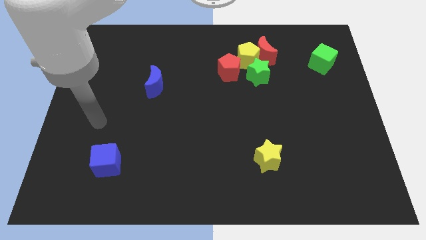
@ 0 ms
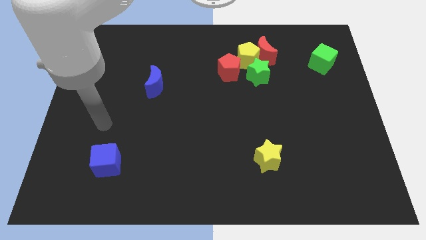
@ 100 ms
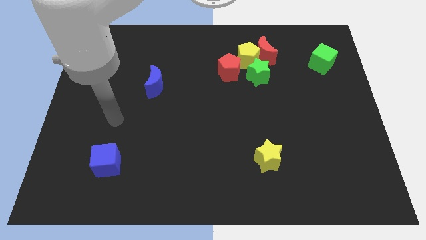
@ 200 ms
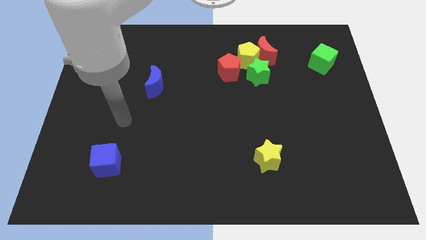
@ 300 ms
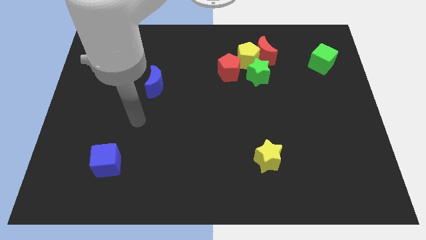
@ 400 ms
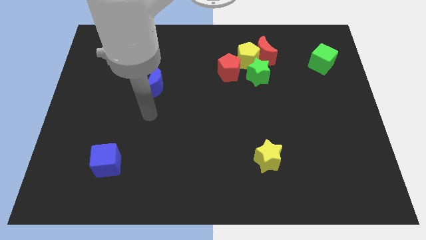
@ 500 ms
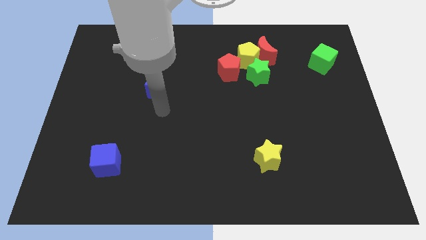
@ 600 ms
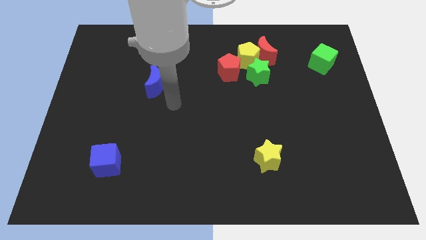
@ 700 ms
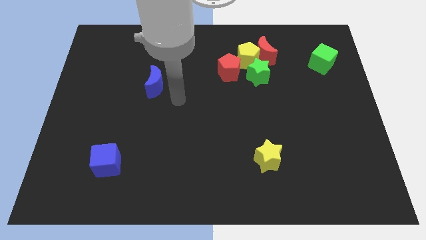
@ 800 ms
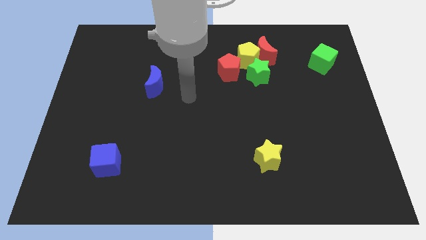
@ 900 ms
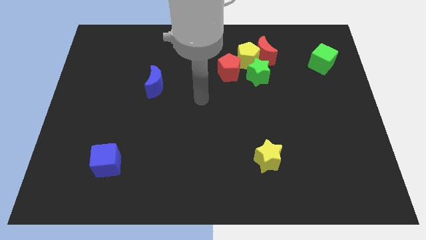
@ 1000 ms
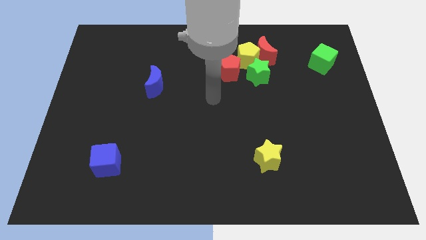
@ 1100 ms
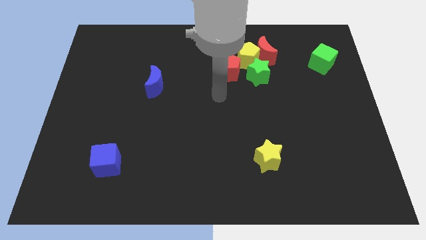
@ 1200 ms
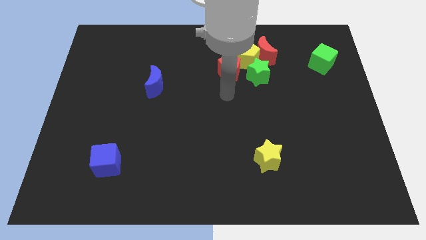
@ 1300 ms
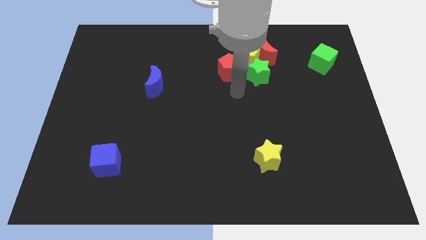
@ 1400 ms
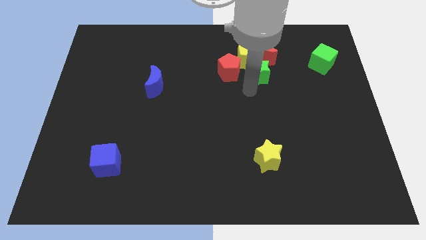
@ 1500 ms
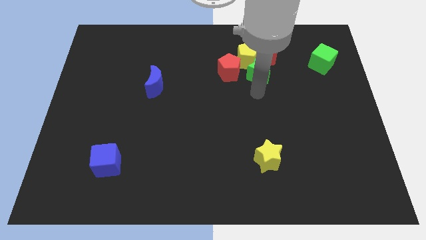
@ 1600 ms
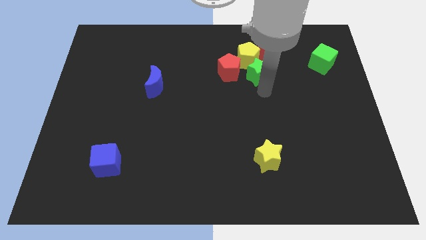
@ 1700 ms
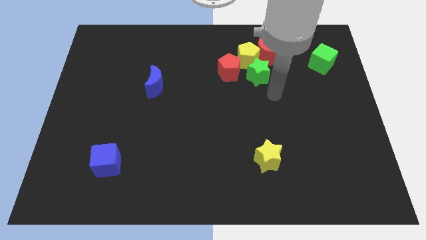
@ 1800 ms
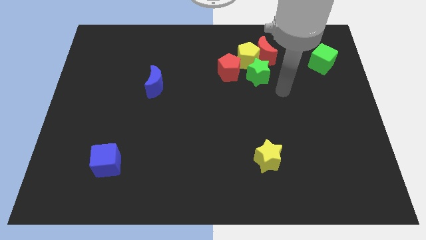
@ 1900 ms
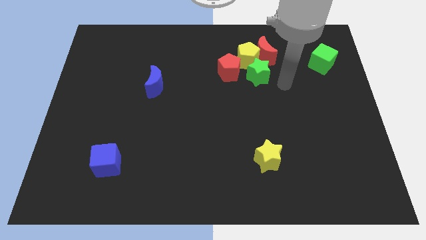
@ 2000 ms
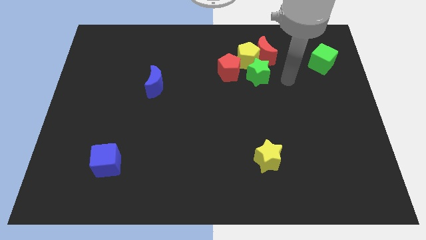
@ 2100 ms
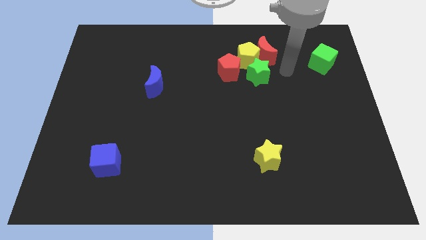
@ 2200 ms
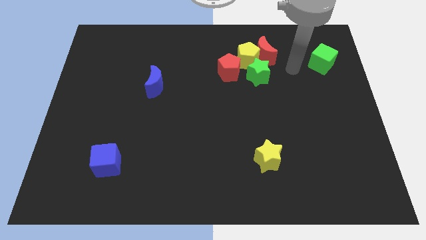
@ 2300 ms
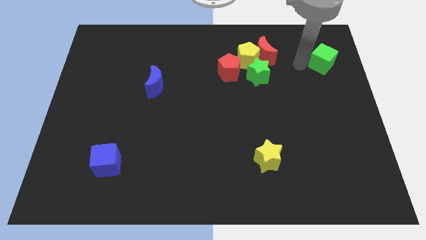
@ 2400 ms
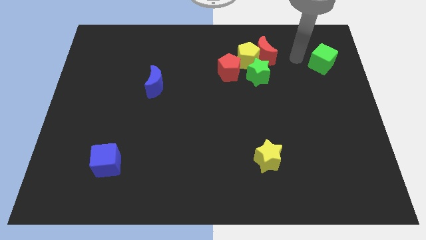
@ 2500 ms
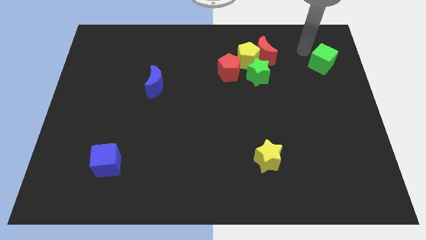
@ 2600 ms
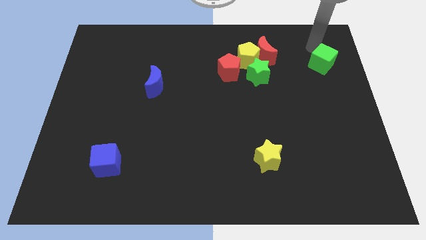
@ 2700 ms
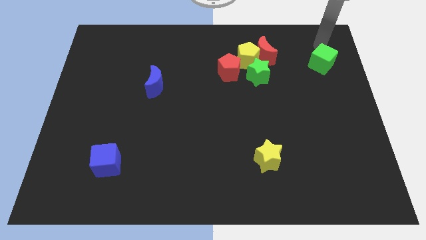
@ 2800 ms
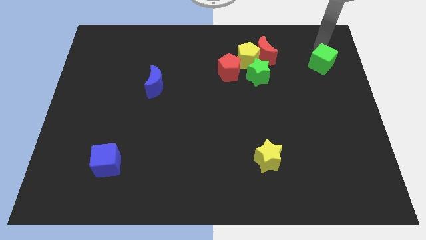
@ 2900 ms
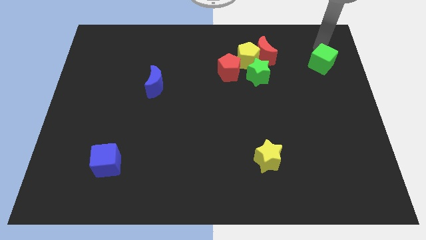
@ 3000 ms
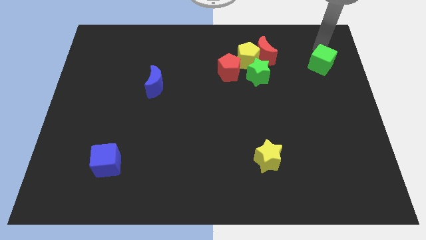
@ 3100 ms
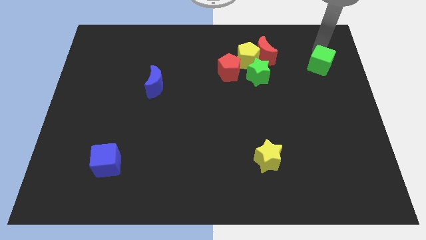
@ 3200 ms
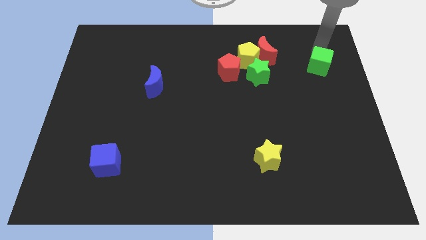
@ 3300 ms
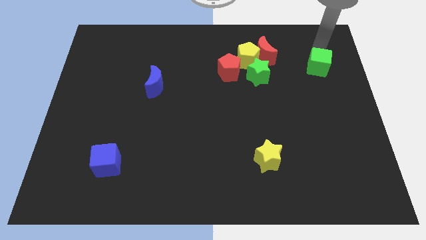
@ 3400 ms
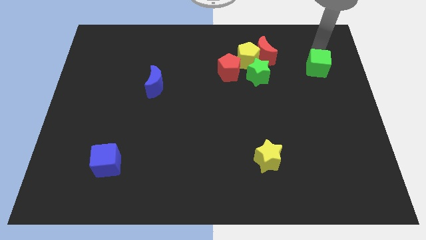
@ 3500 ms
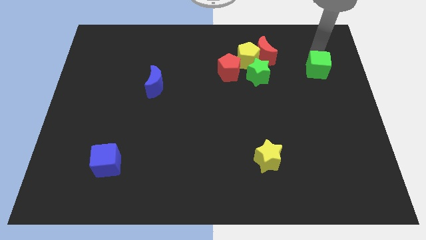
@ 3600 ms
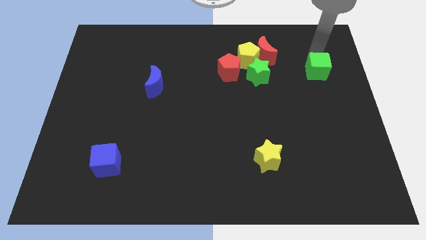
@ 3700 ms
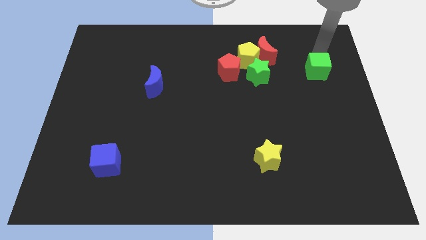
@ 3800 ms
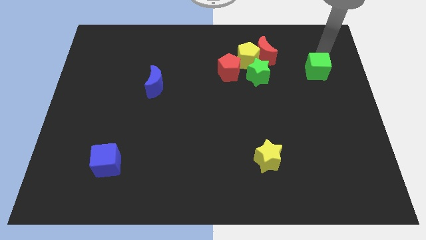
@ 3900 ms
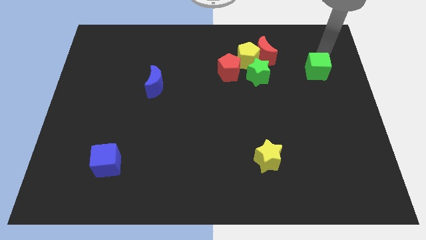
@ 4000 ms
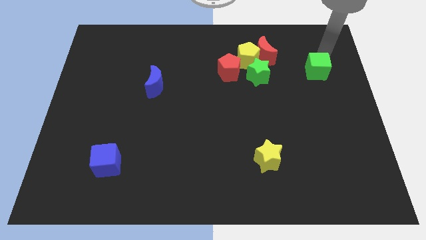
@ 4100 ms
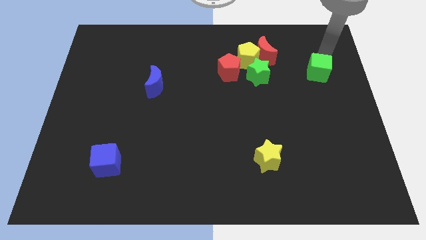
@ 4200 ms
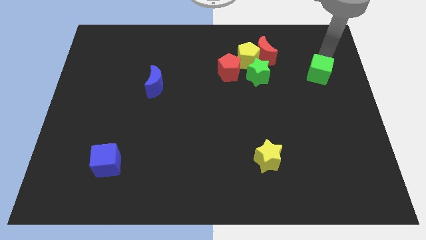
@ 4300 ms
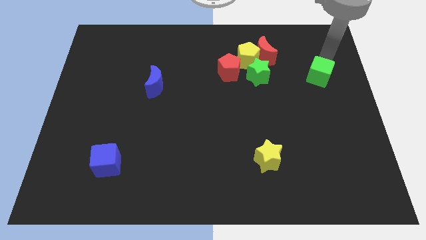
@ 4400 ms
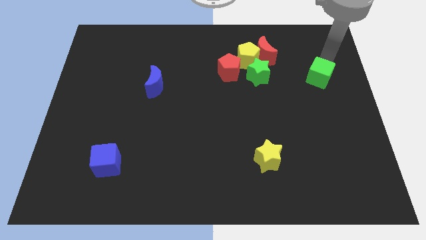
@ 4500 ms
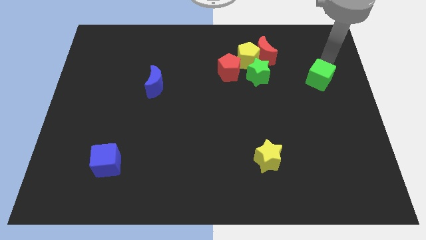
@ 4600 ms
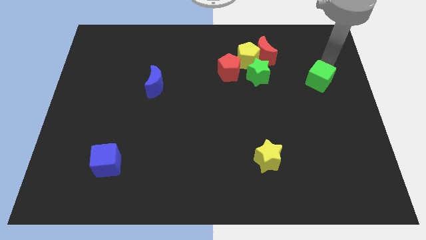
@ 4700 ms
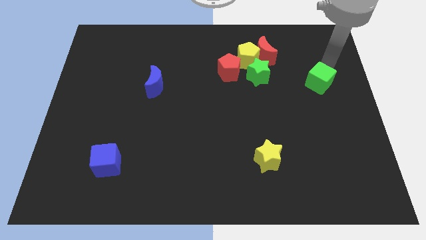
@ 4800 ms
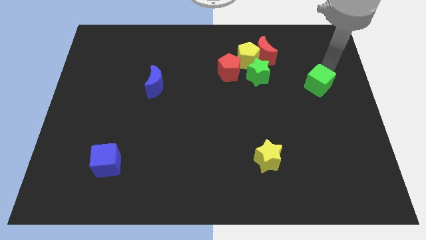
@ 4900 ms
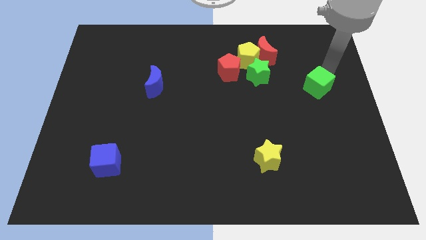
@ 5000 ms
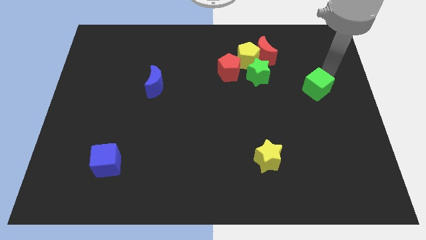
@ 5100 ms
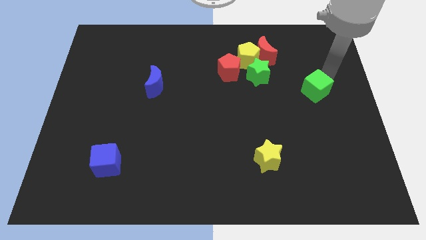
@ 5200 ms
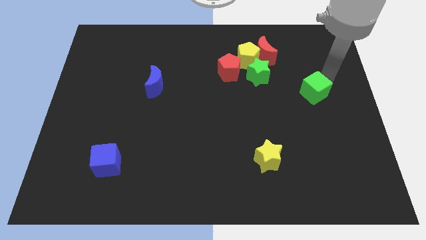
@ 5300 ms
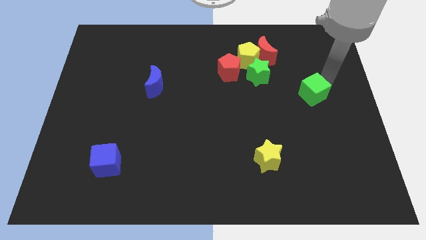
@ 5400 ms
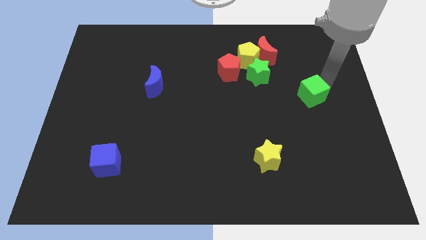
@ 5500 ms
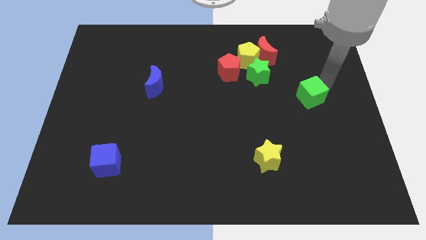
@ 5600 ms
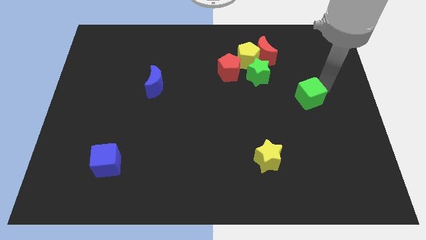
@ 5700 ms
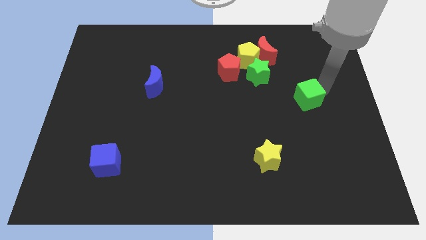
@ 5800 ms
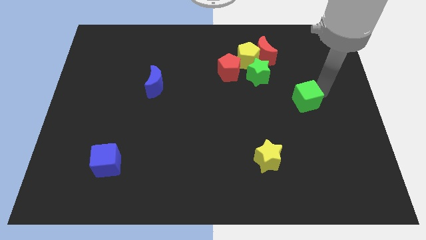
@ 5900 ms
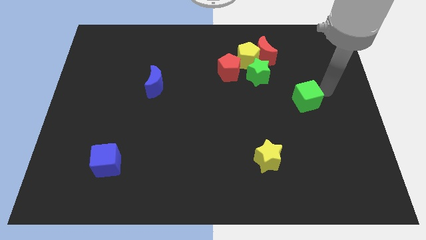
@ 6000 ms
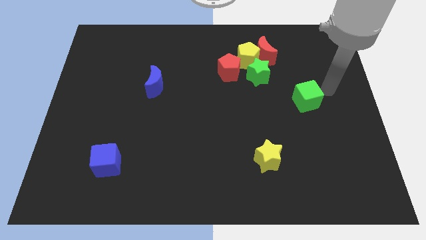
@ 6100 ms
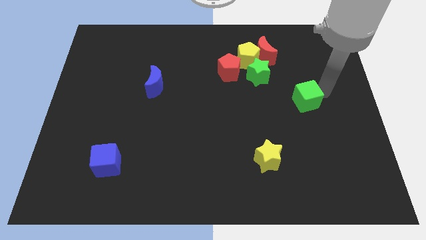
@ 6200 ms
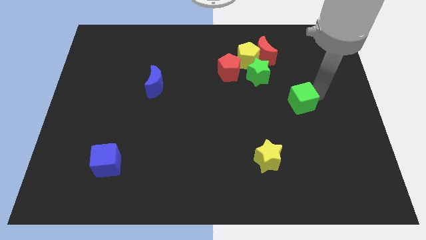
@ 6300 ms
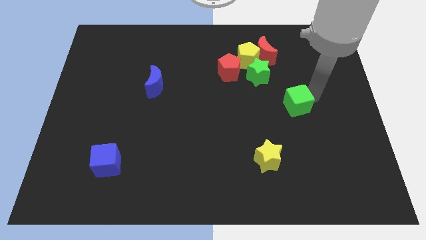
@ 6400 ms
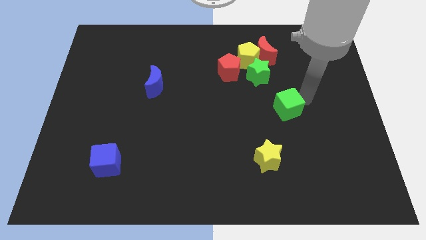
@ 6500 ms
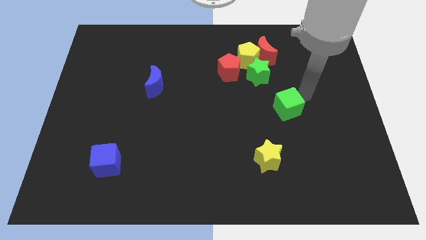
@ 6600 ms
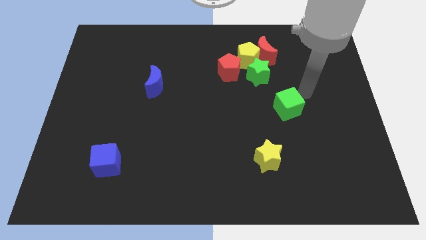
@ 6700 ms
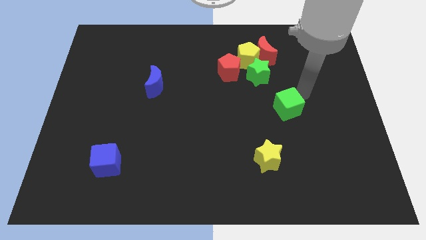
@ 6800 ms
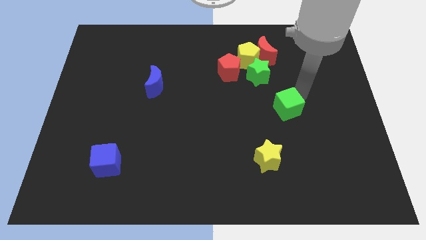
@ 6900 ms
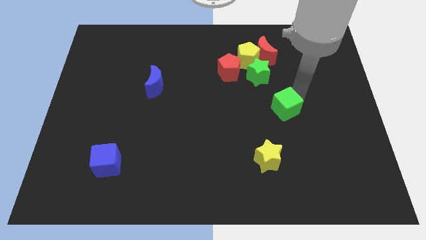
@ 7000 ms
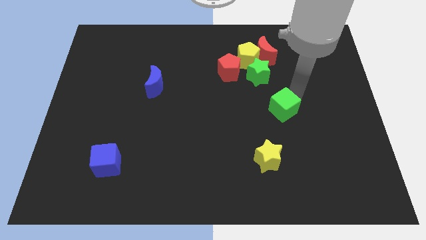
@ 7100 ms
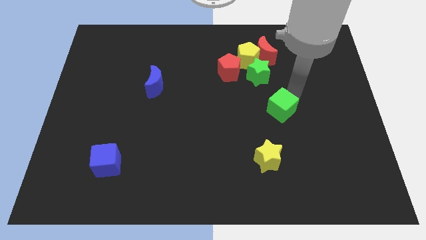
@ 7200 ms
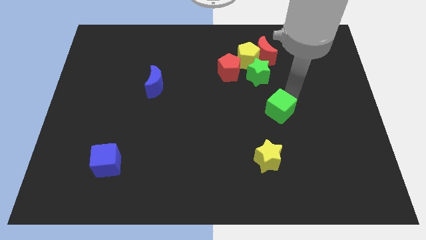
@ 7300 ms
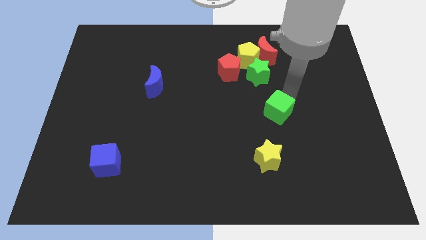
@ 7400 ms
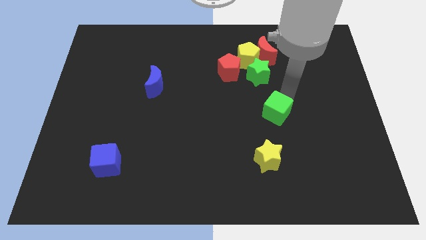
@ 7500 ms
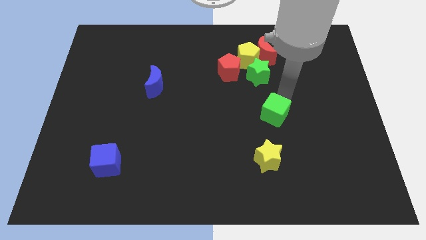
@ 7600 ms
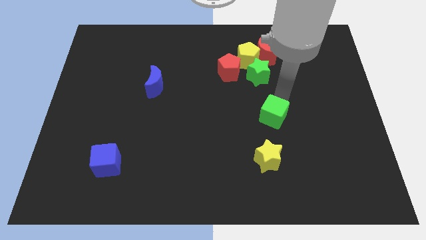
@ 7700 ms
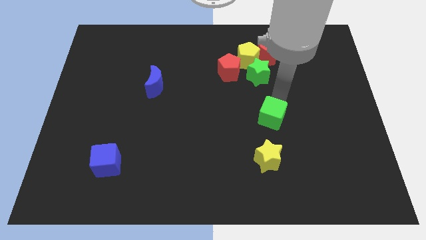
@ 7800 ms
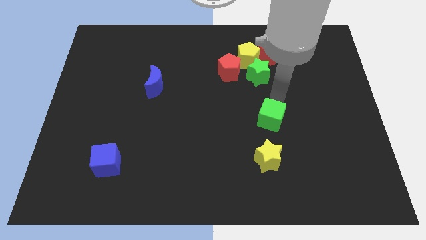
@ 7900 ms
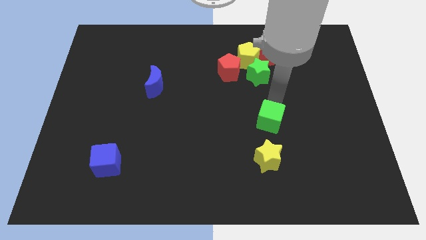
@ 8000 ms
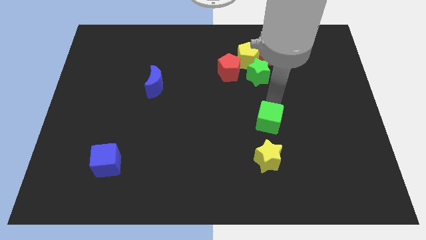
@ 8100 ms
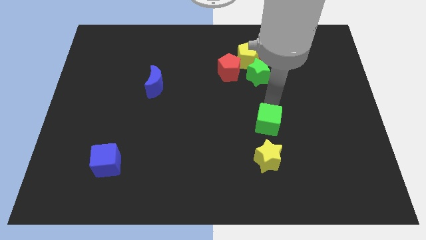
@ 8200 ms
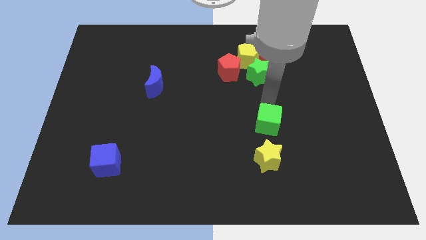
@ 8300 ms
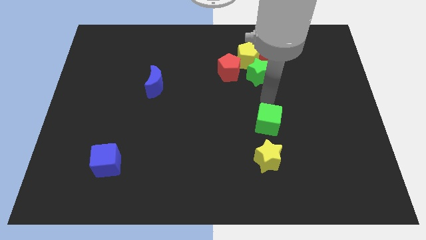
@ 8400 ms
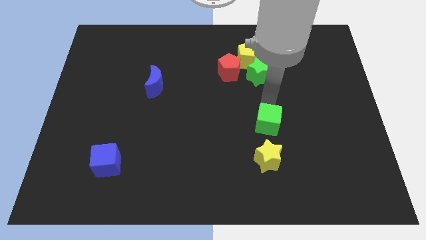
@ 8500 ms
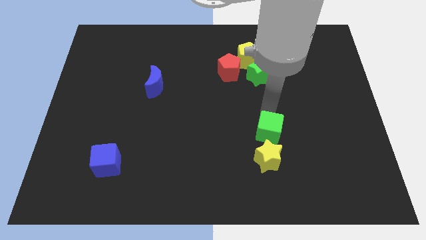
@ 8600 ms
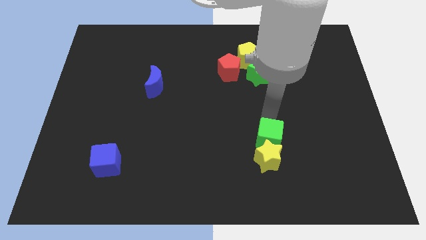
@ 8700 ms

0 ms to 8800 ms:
move the green cube close to the yellow star
